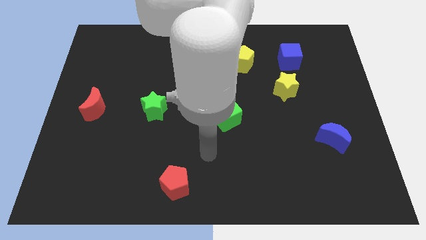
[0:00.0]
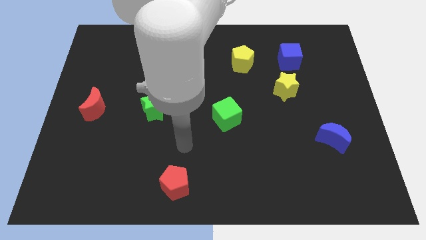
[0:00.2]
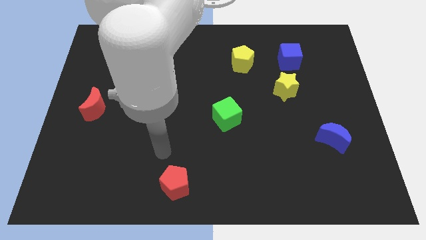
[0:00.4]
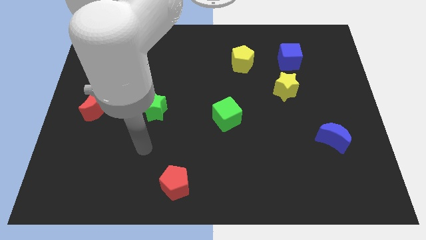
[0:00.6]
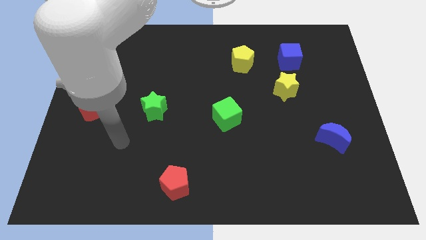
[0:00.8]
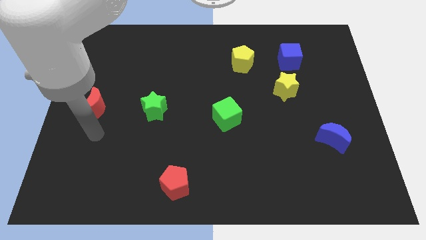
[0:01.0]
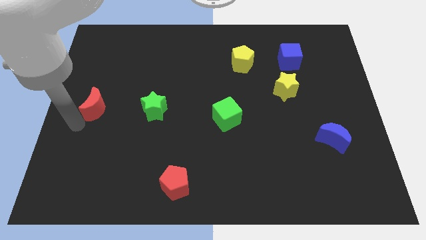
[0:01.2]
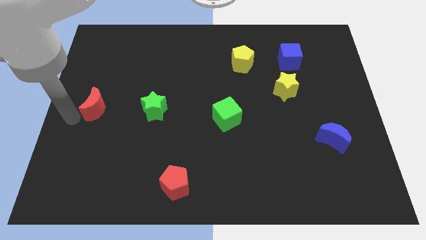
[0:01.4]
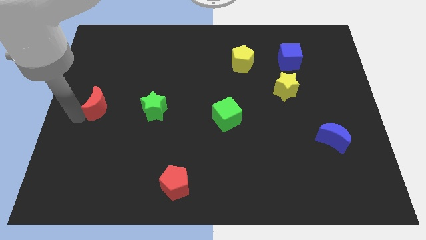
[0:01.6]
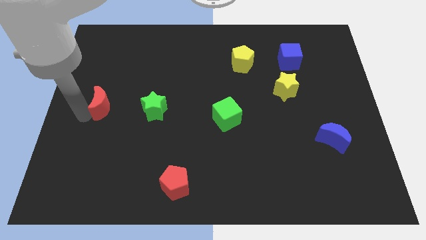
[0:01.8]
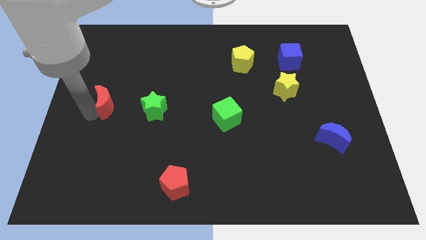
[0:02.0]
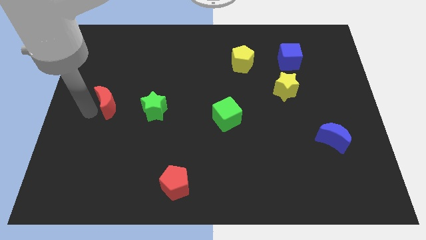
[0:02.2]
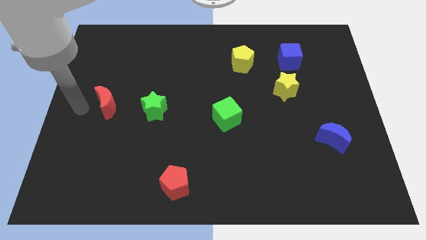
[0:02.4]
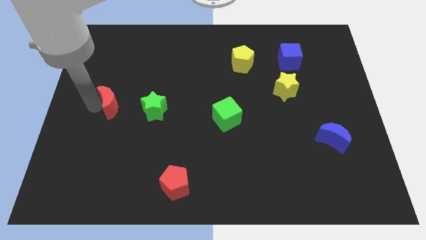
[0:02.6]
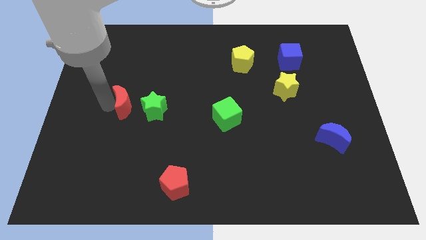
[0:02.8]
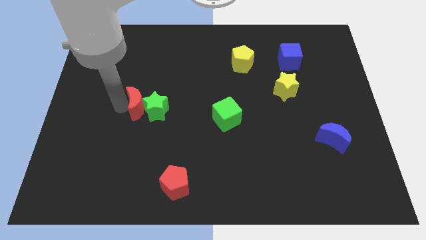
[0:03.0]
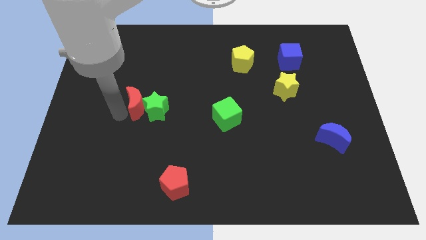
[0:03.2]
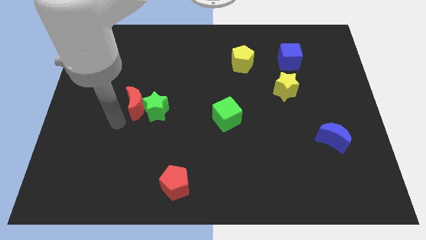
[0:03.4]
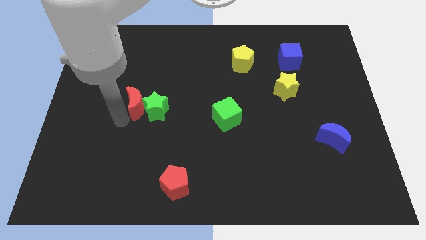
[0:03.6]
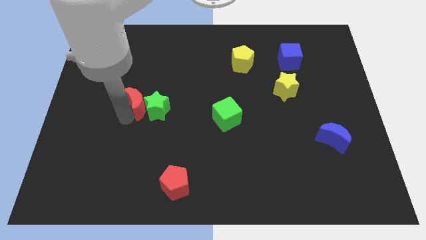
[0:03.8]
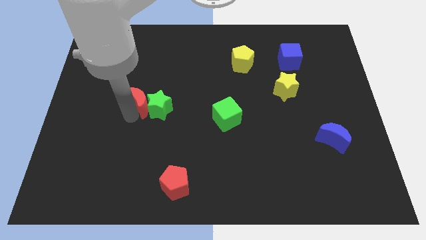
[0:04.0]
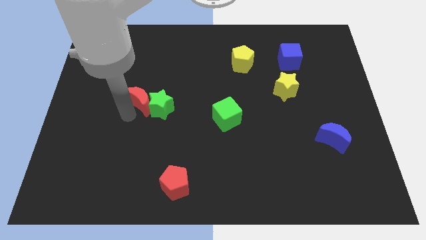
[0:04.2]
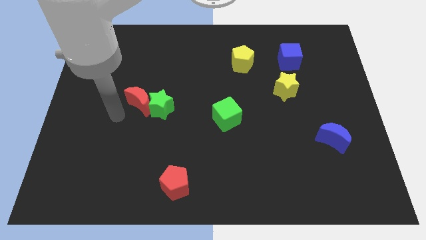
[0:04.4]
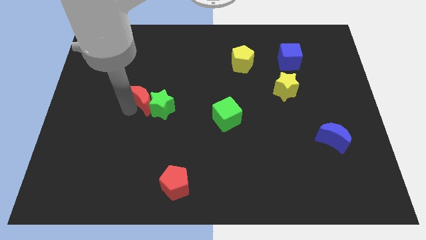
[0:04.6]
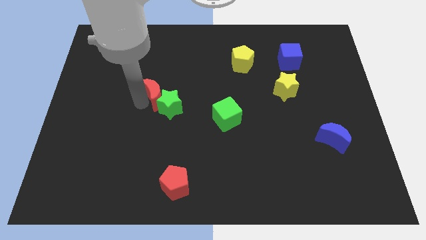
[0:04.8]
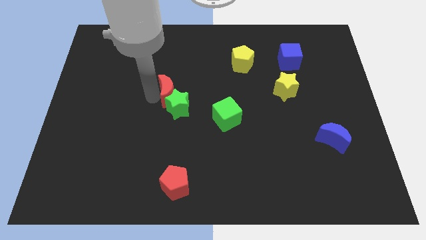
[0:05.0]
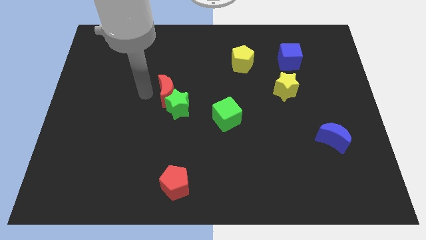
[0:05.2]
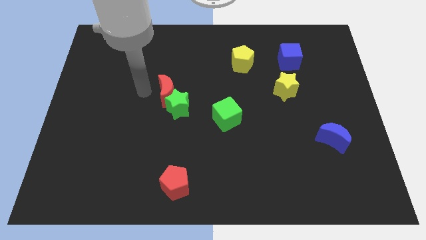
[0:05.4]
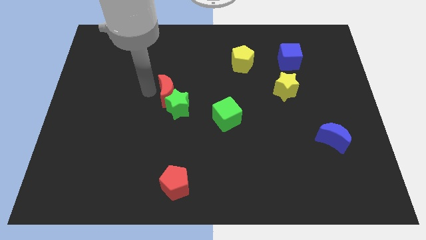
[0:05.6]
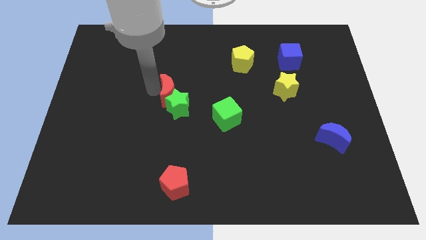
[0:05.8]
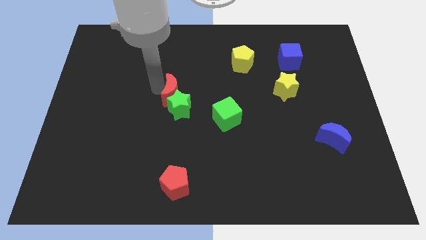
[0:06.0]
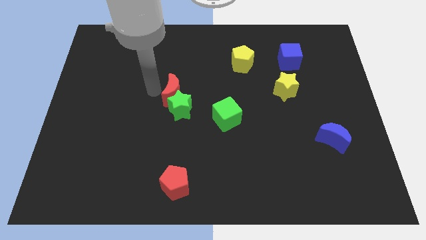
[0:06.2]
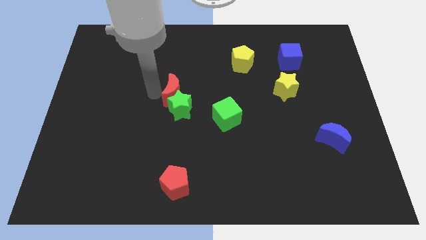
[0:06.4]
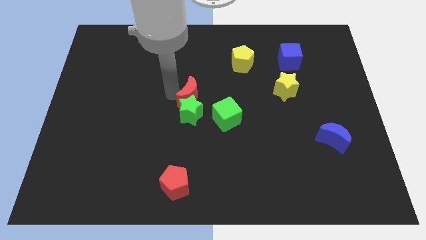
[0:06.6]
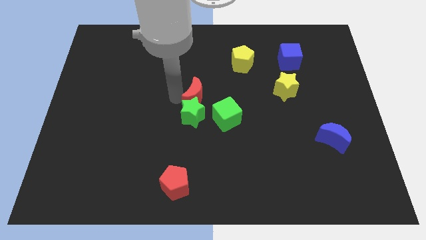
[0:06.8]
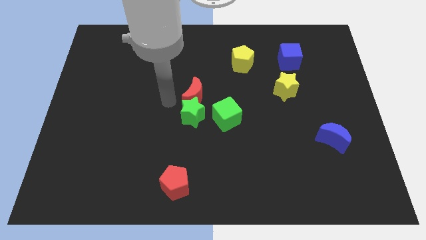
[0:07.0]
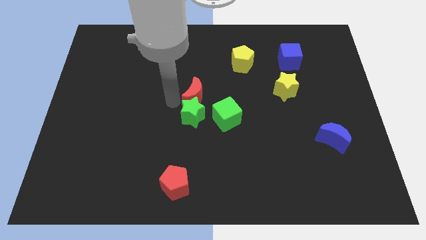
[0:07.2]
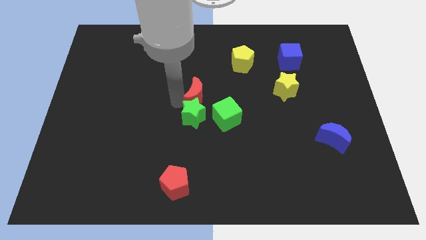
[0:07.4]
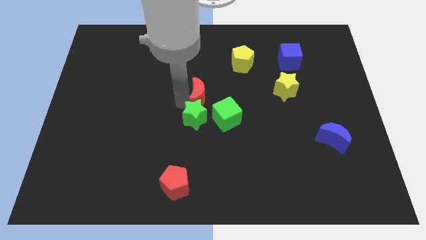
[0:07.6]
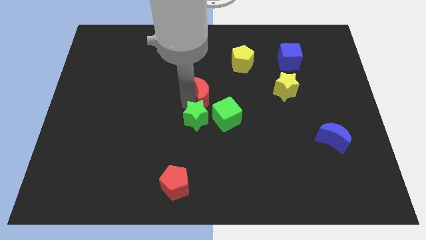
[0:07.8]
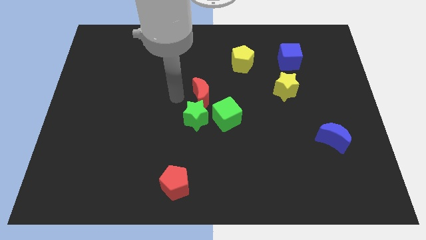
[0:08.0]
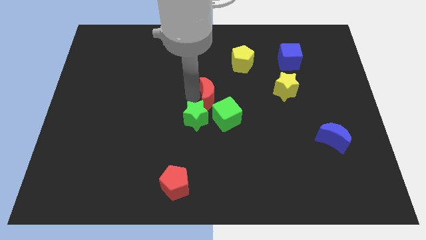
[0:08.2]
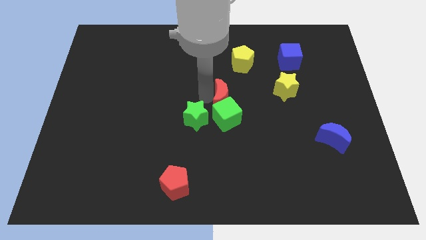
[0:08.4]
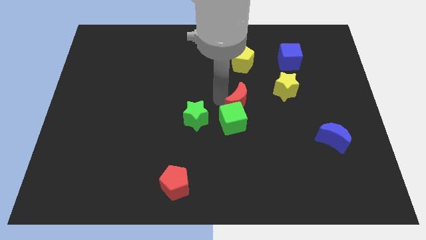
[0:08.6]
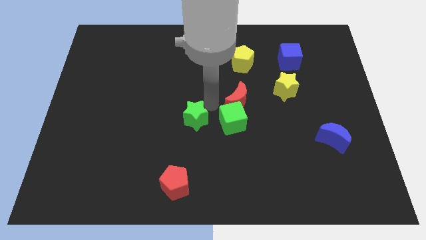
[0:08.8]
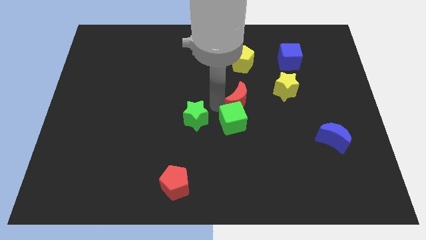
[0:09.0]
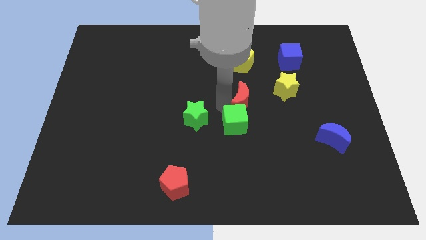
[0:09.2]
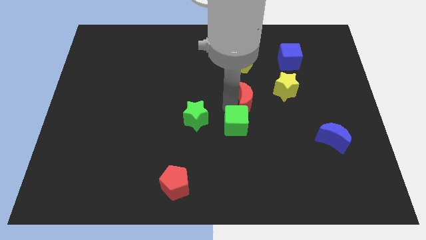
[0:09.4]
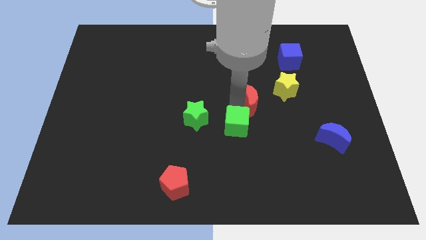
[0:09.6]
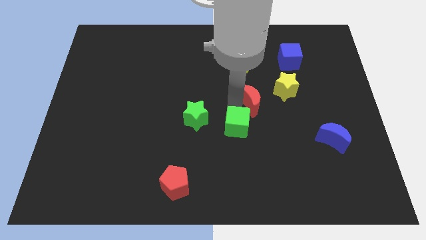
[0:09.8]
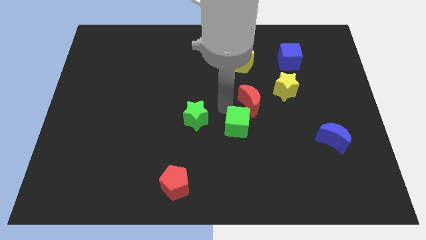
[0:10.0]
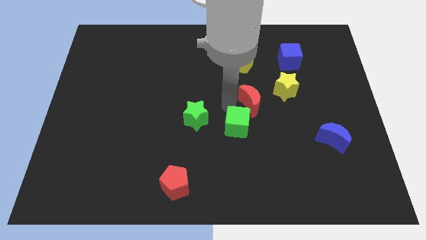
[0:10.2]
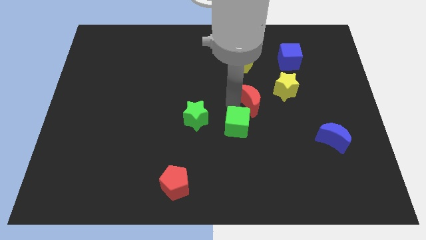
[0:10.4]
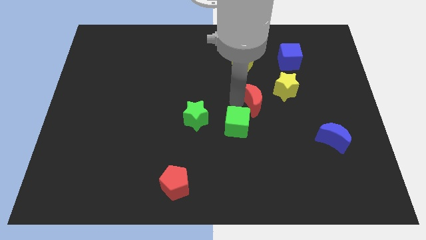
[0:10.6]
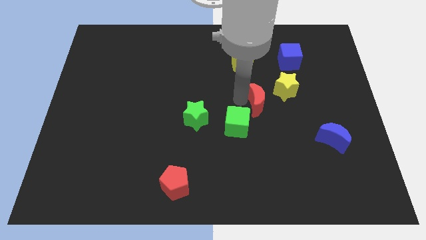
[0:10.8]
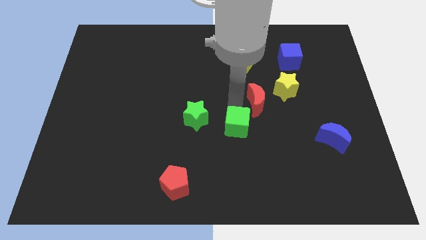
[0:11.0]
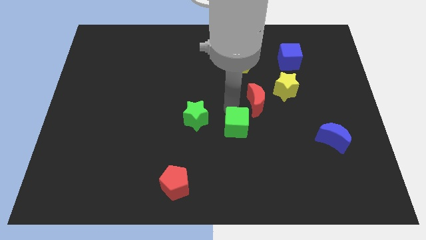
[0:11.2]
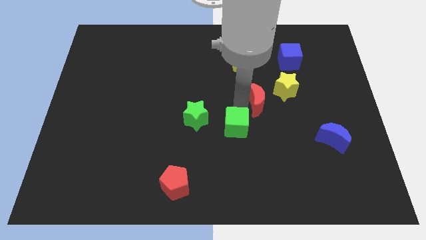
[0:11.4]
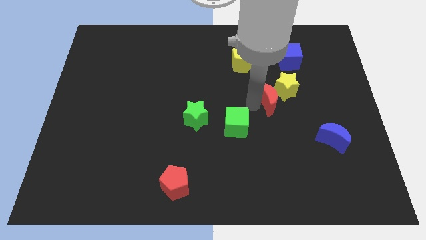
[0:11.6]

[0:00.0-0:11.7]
move the red moon close to the yellow star
